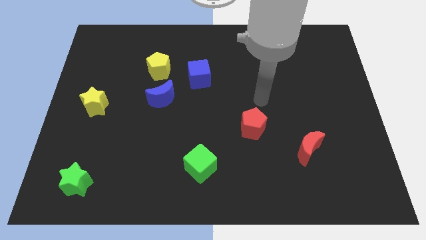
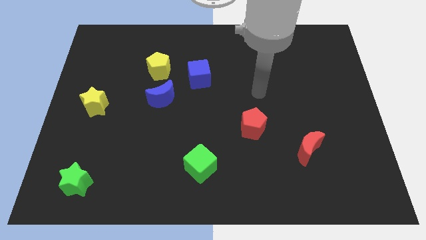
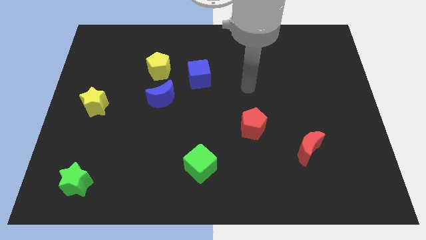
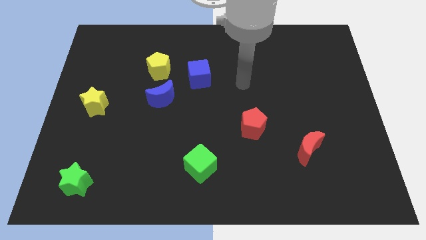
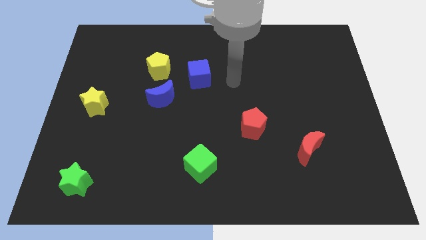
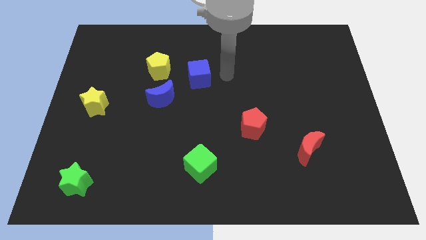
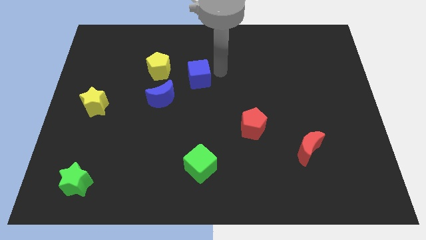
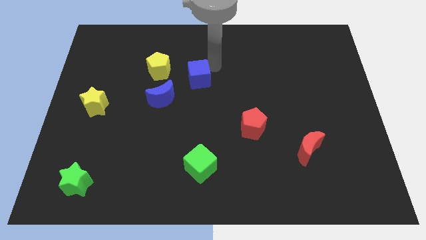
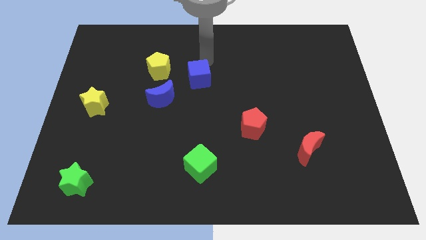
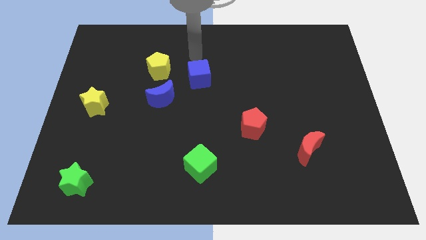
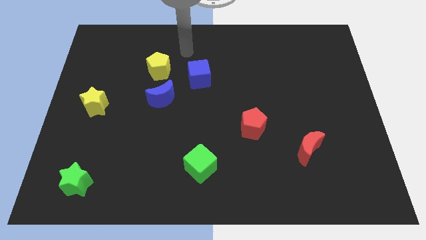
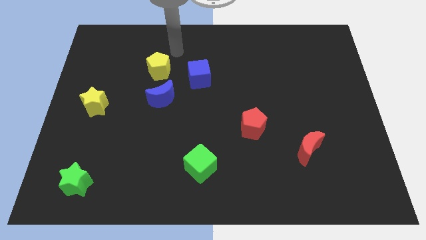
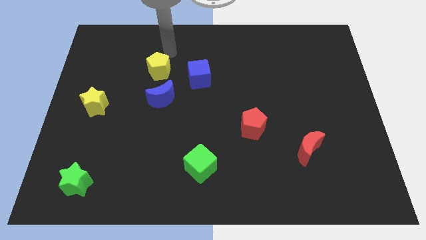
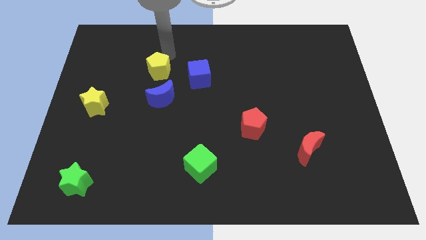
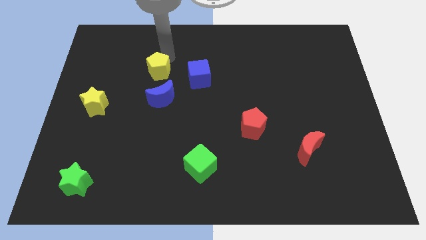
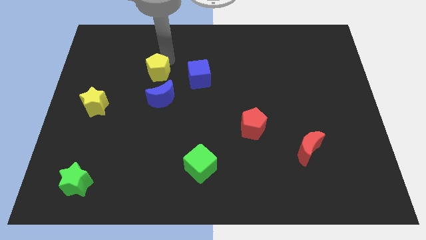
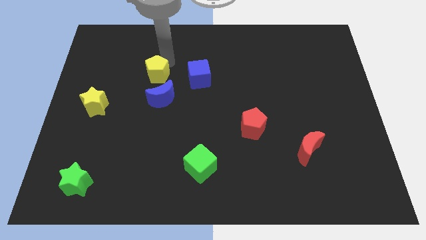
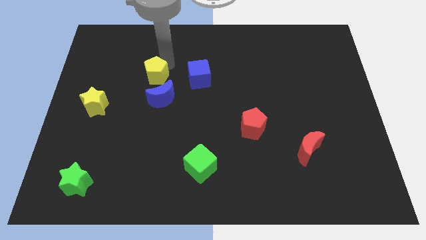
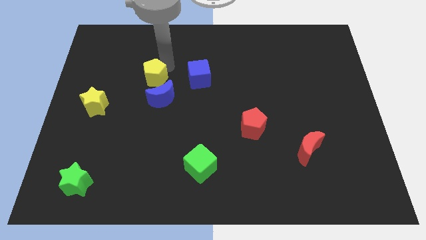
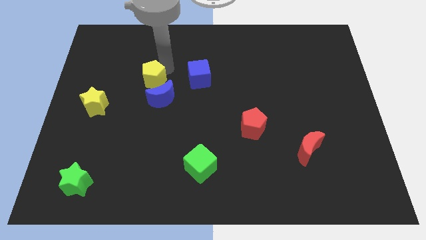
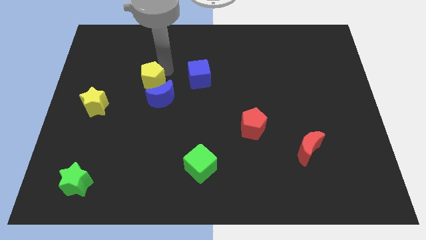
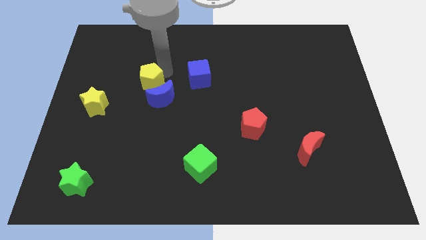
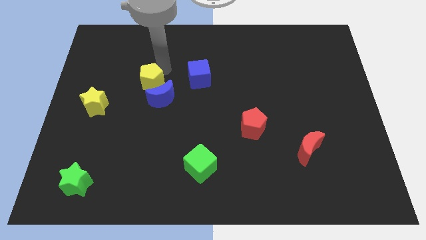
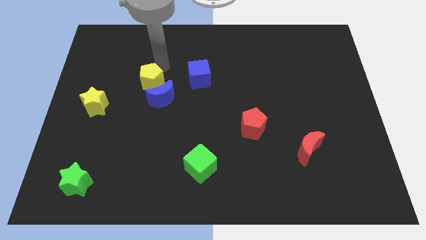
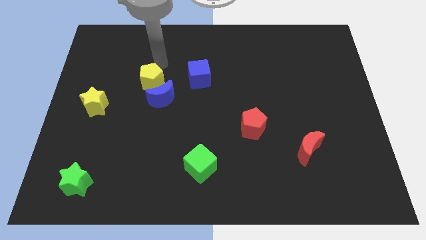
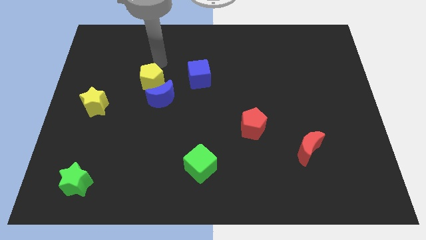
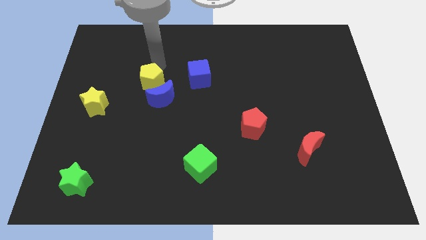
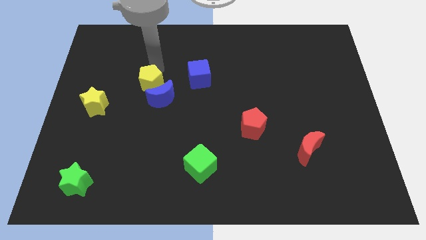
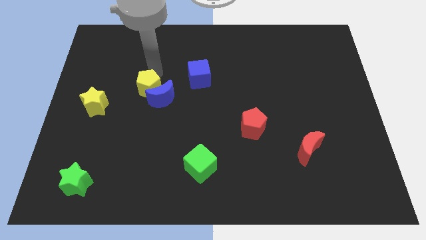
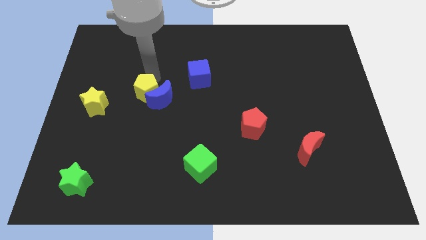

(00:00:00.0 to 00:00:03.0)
slide the yellow pentagon a bit downwards

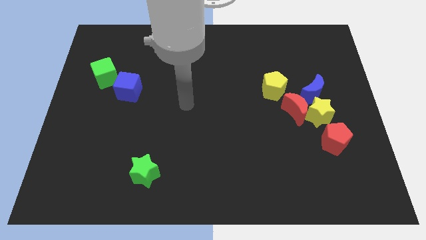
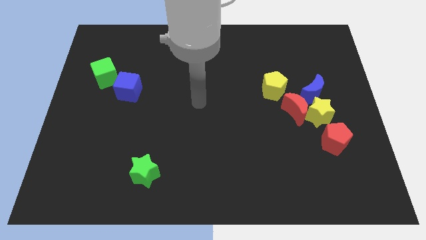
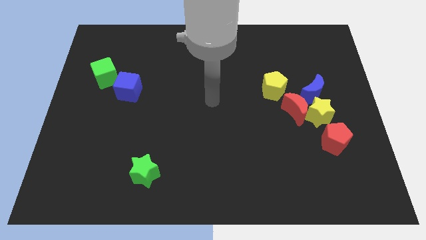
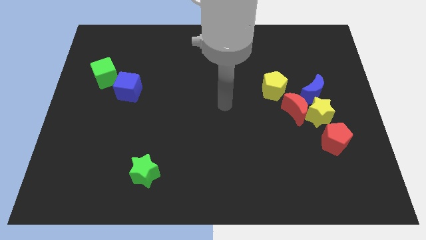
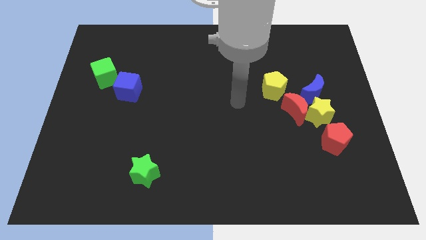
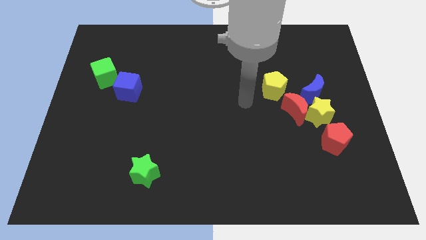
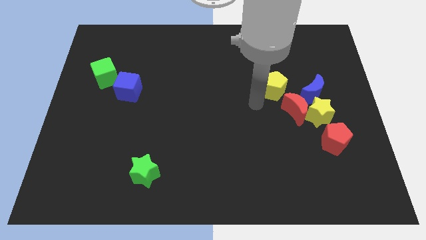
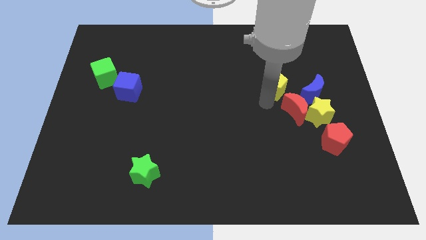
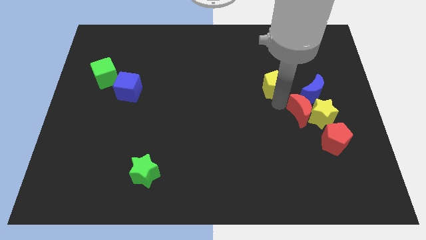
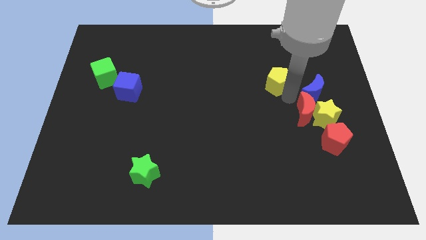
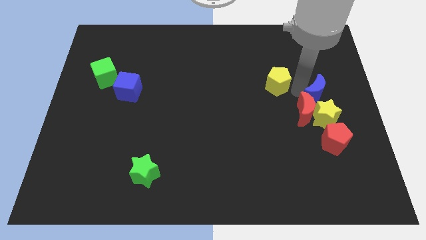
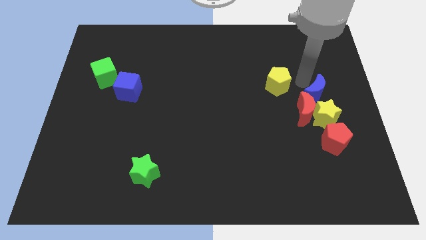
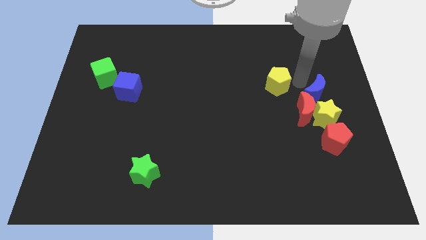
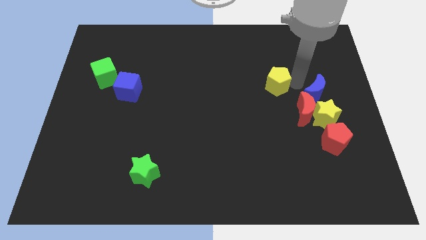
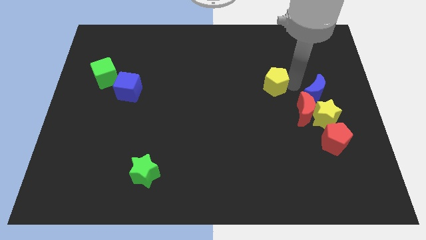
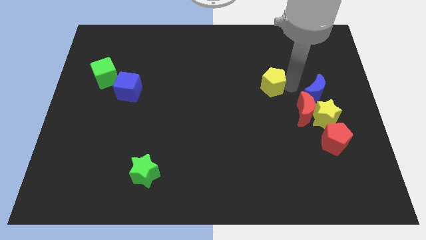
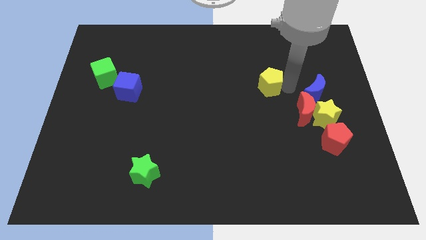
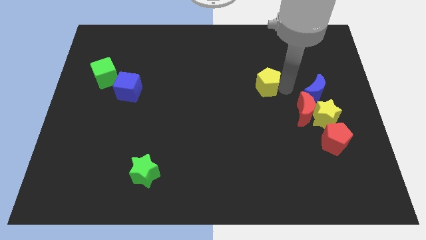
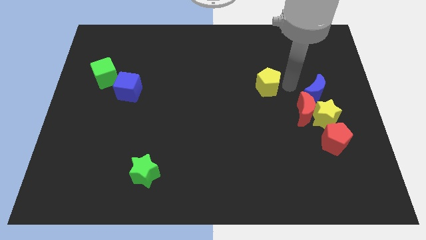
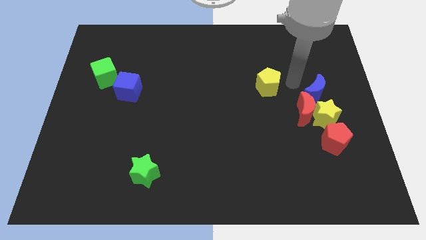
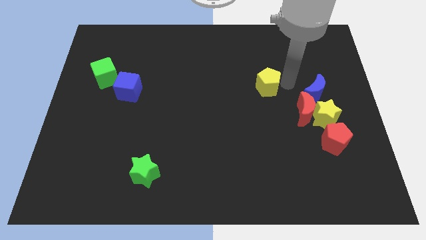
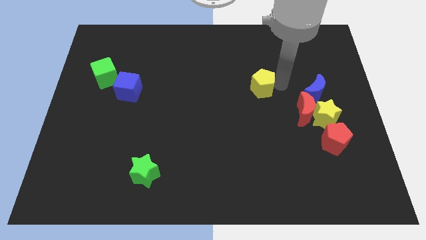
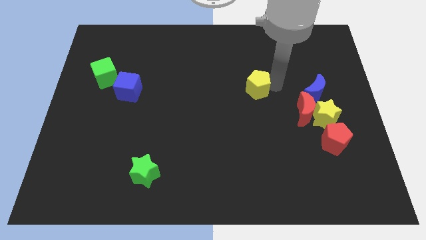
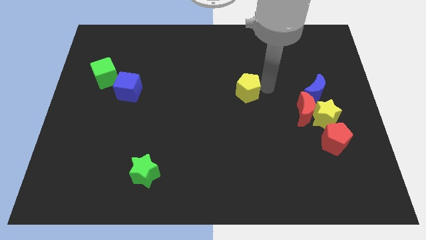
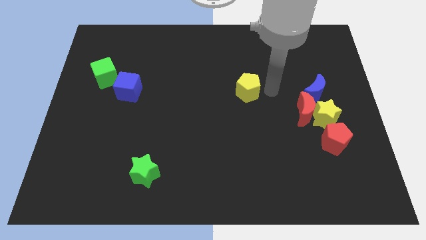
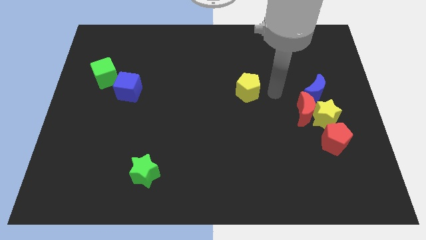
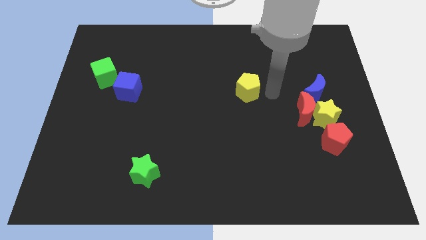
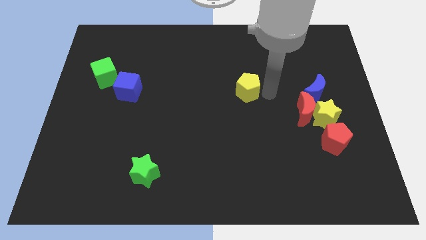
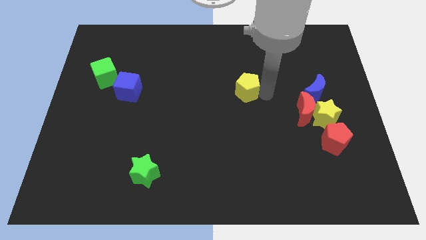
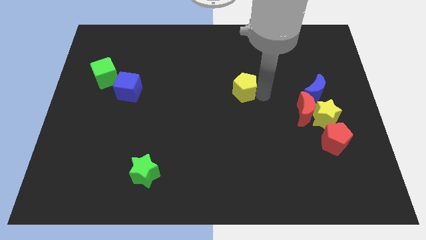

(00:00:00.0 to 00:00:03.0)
slide the yellow pentagon left somewhat

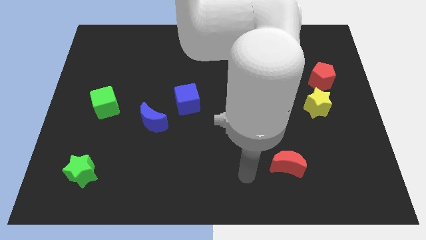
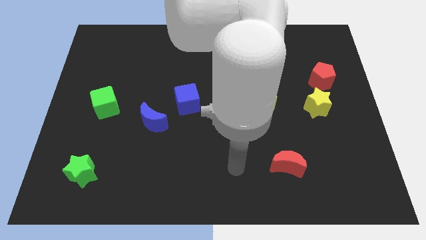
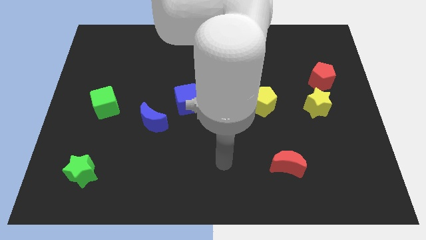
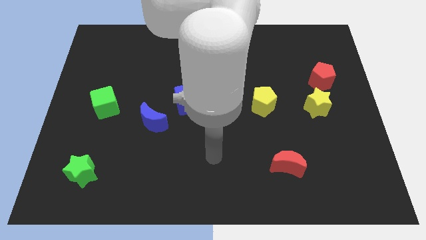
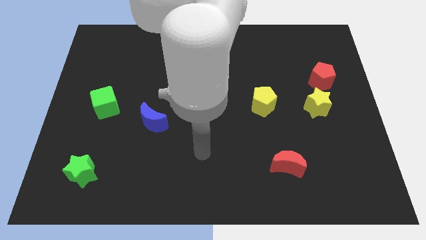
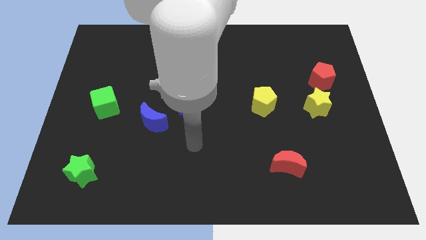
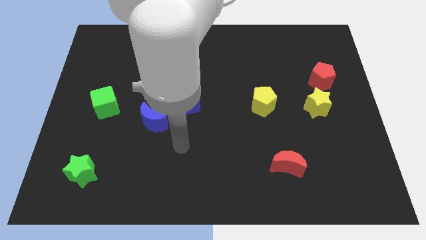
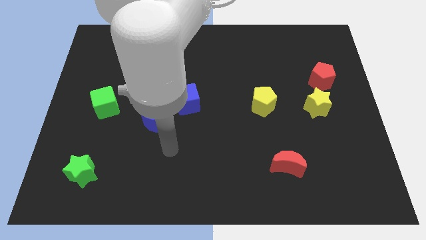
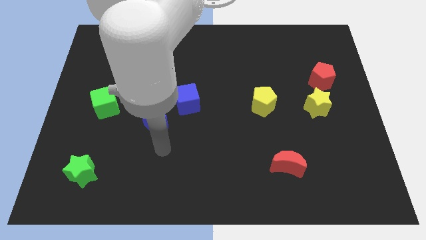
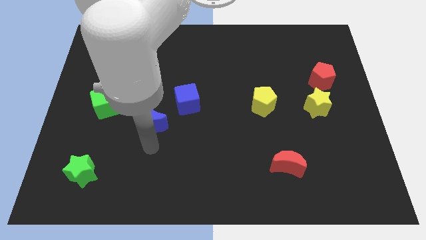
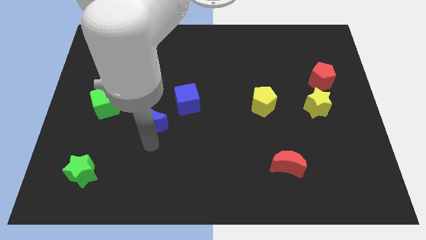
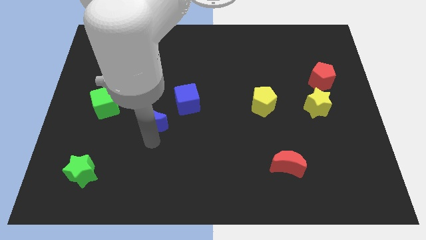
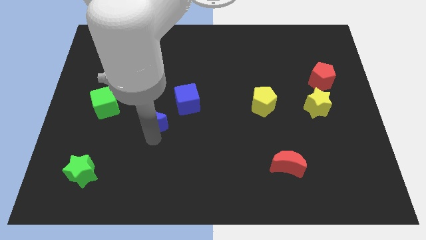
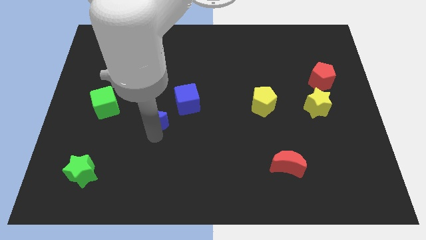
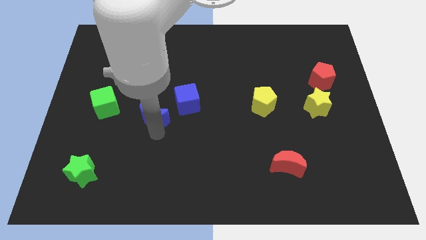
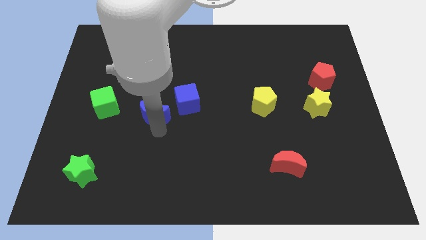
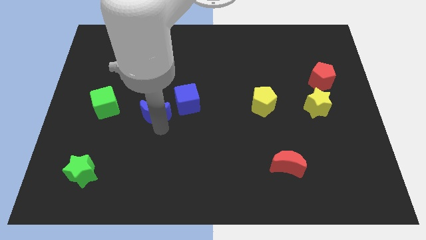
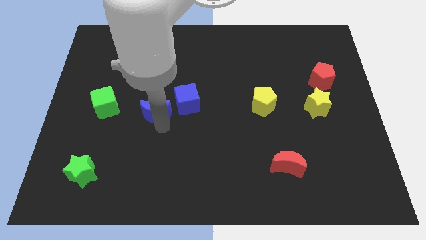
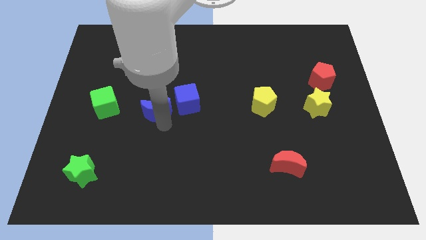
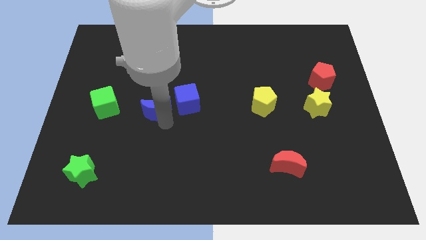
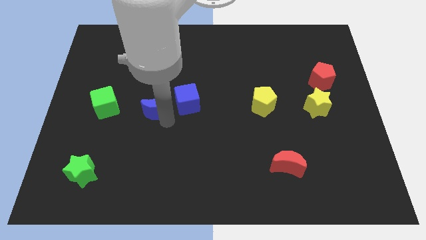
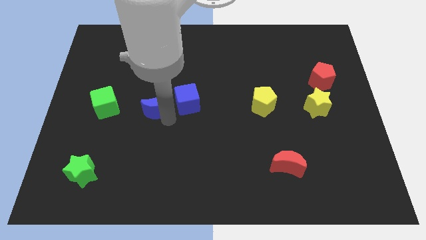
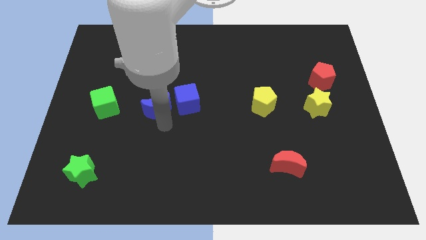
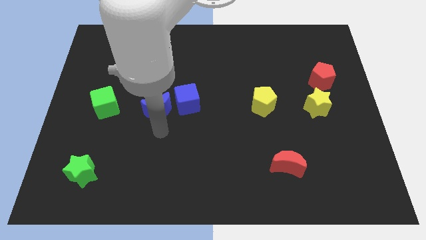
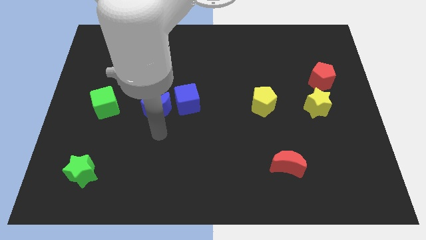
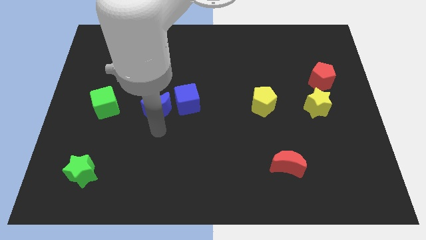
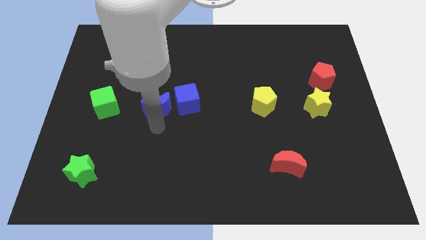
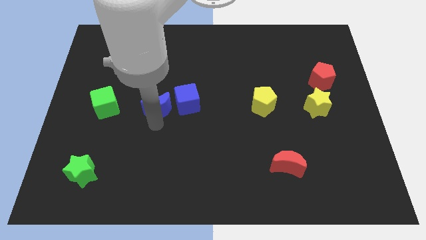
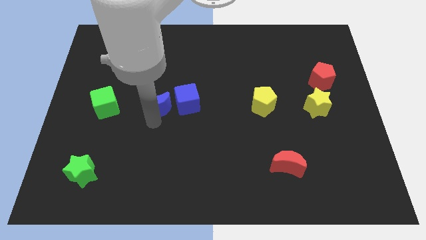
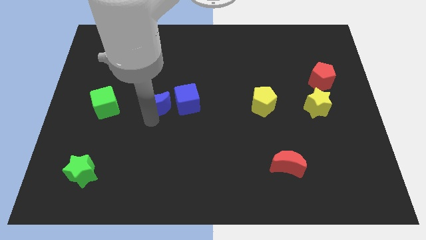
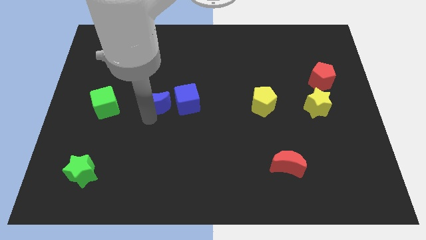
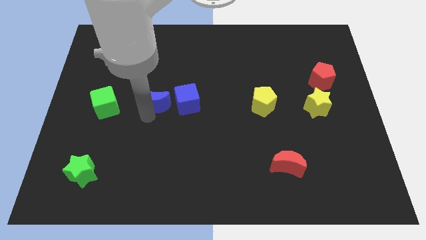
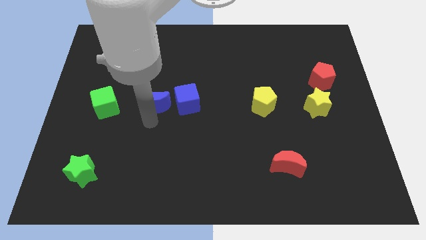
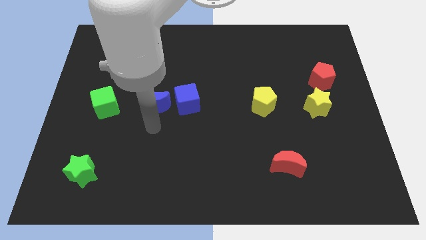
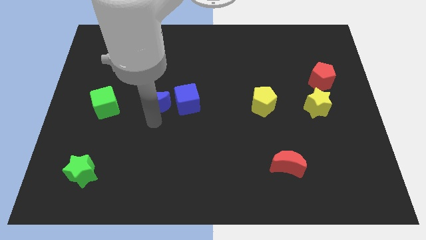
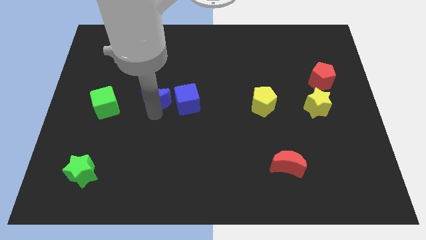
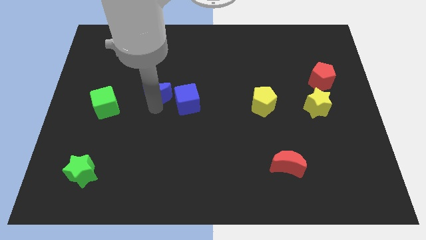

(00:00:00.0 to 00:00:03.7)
slightly push the blue moon up
